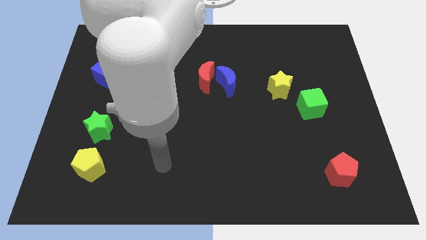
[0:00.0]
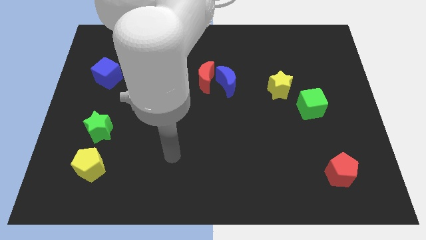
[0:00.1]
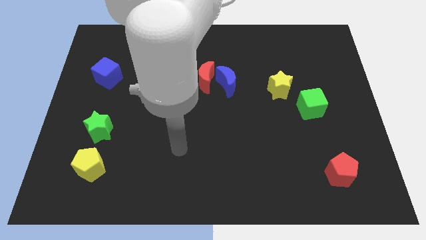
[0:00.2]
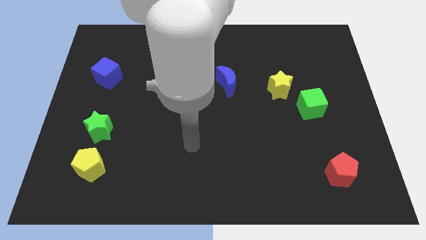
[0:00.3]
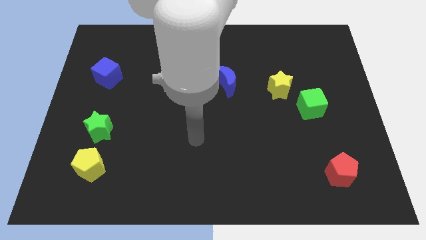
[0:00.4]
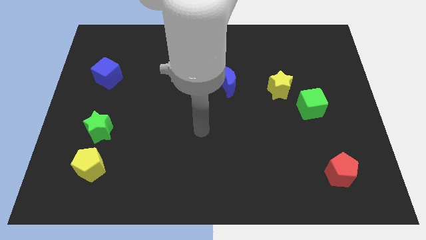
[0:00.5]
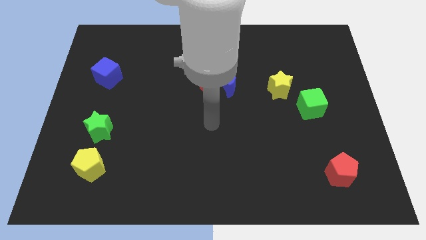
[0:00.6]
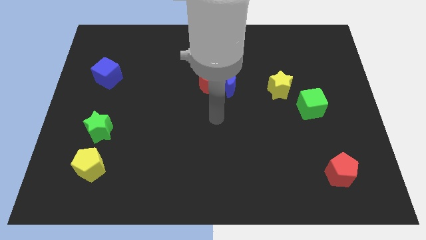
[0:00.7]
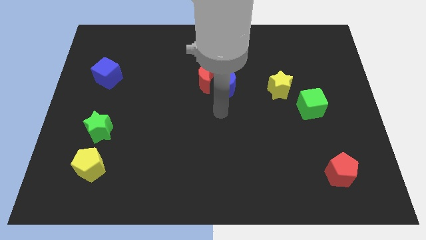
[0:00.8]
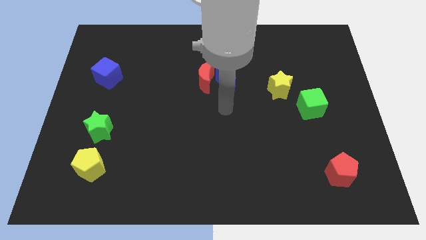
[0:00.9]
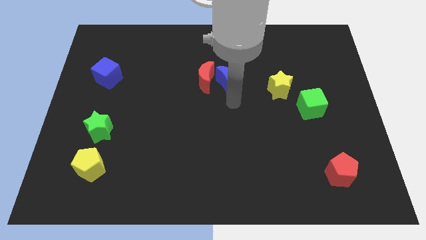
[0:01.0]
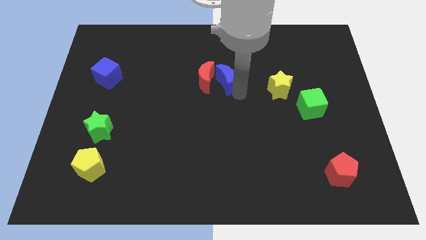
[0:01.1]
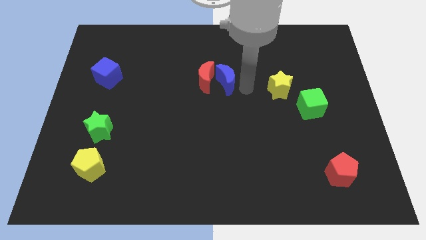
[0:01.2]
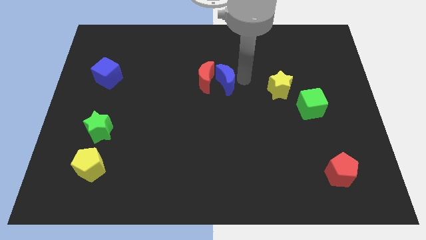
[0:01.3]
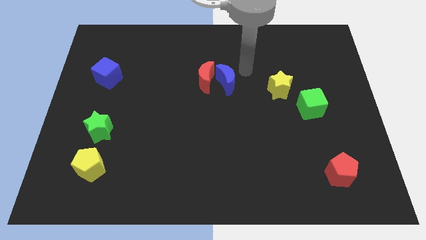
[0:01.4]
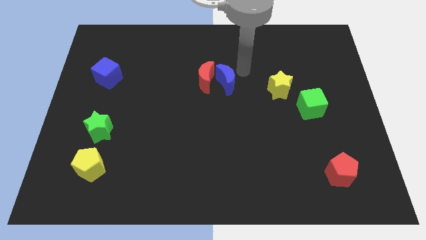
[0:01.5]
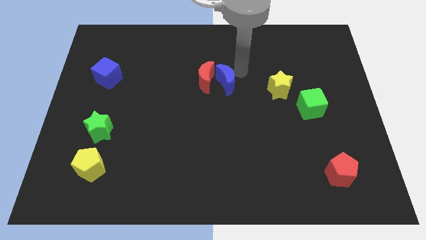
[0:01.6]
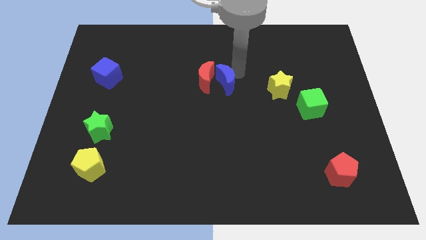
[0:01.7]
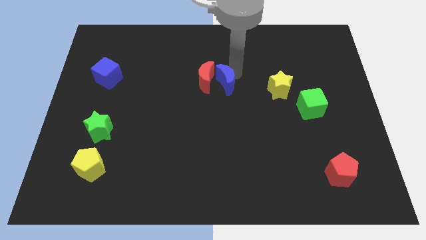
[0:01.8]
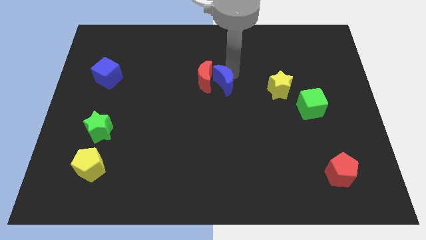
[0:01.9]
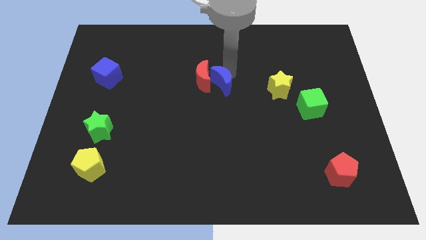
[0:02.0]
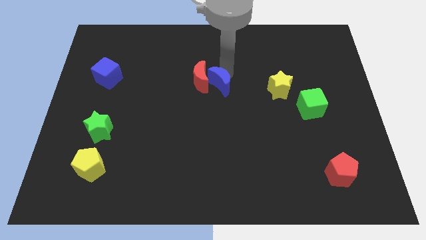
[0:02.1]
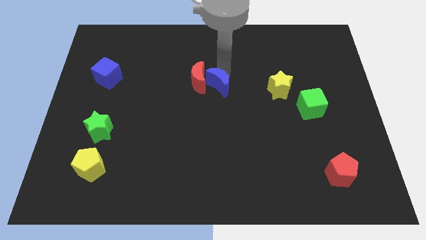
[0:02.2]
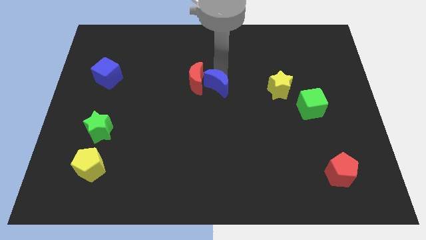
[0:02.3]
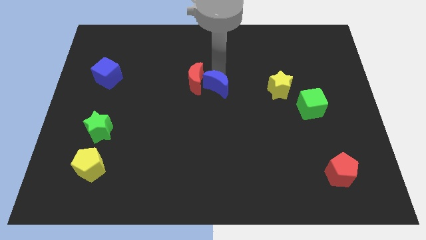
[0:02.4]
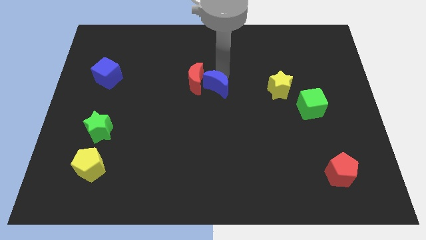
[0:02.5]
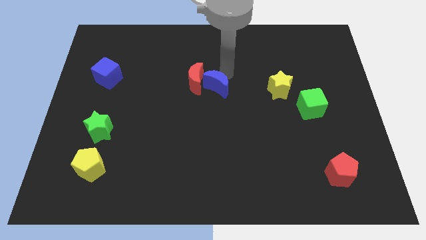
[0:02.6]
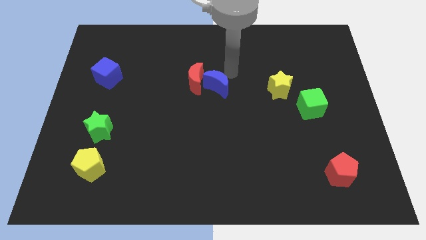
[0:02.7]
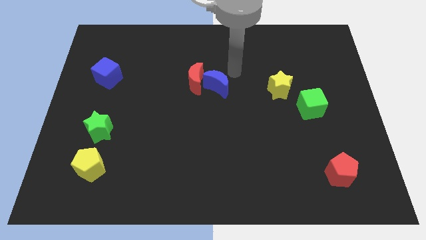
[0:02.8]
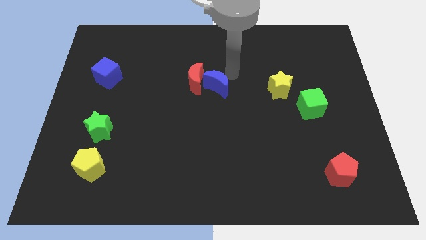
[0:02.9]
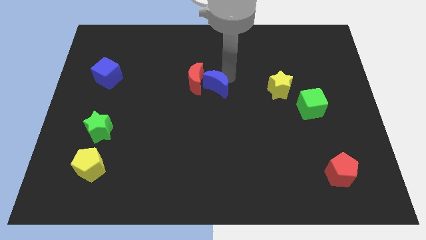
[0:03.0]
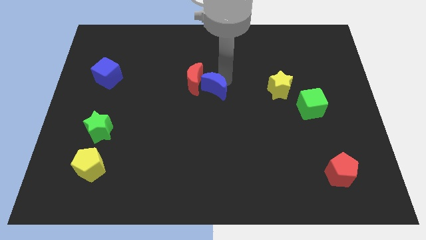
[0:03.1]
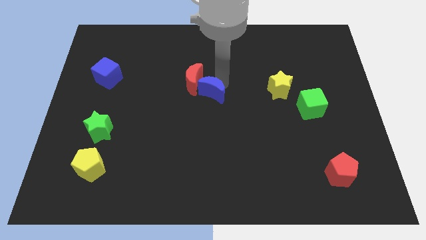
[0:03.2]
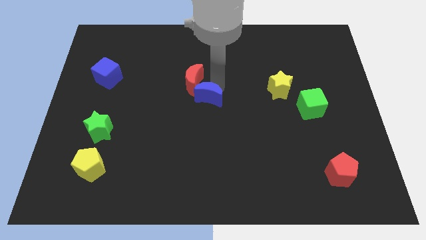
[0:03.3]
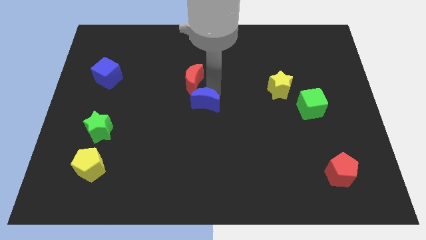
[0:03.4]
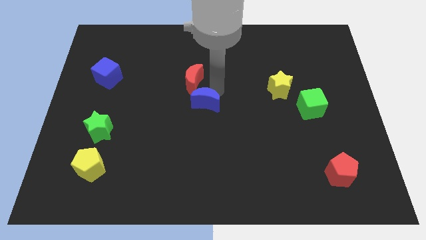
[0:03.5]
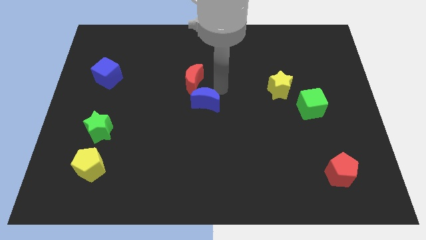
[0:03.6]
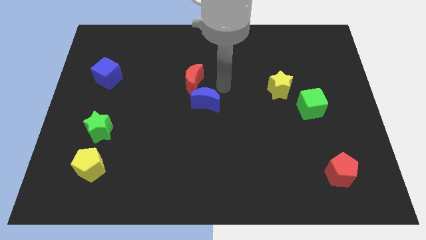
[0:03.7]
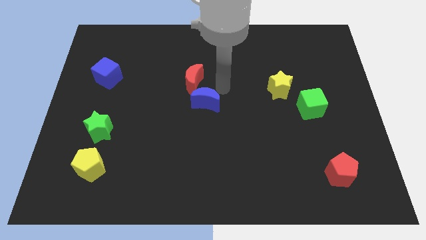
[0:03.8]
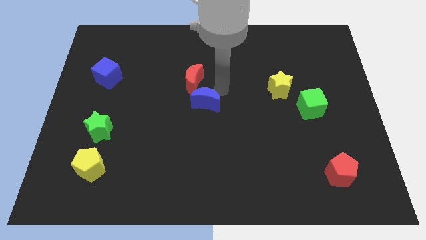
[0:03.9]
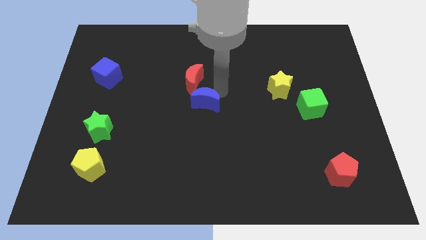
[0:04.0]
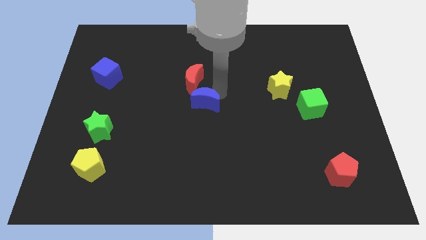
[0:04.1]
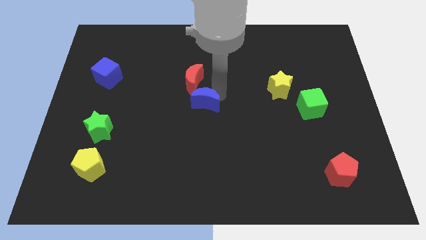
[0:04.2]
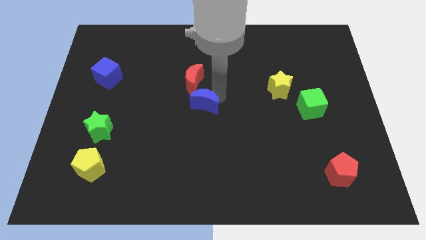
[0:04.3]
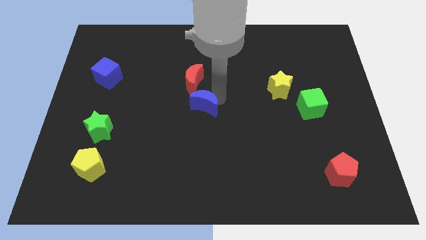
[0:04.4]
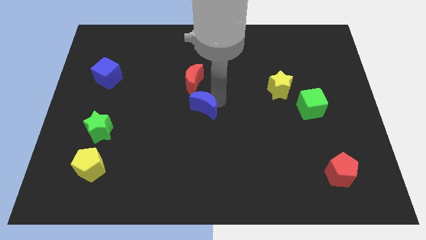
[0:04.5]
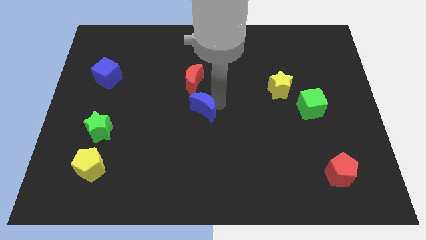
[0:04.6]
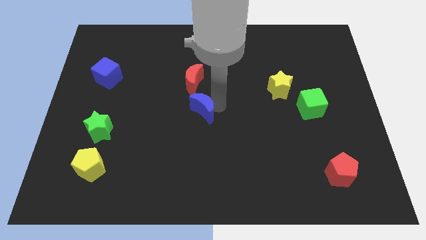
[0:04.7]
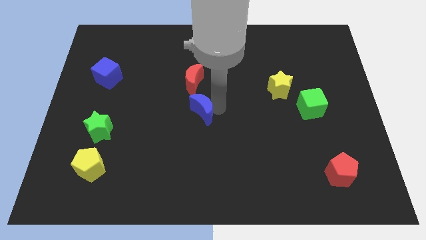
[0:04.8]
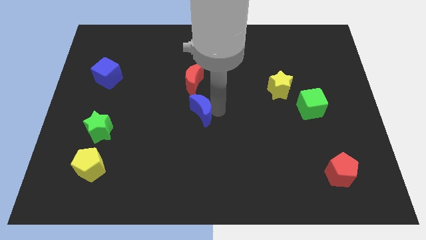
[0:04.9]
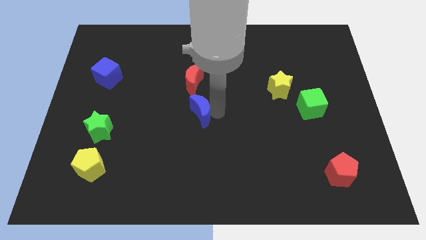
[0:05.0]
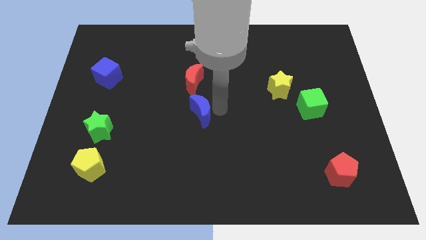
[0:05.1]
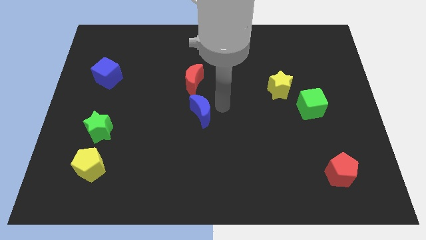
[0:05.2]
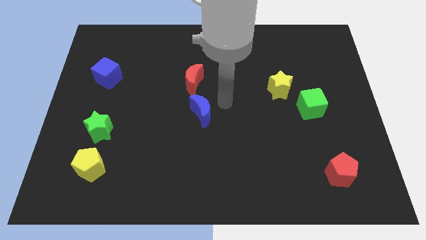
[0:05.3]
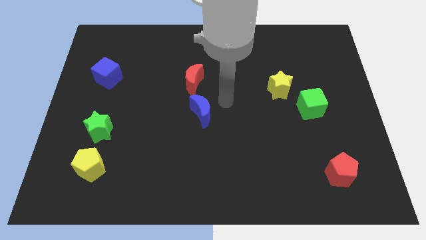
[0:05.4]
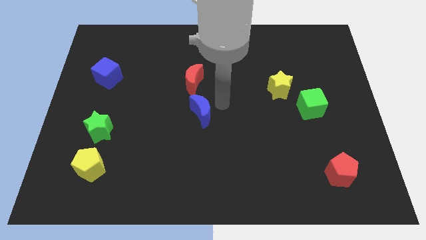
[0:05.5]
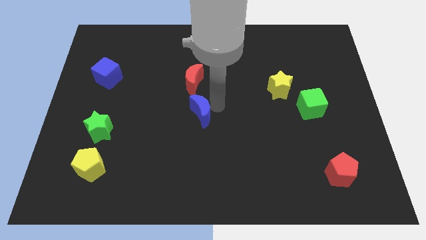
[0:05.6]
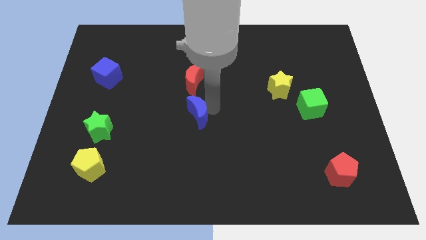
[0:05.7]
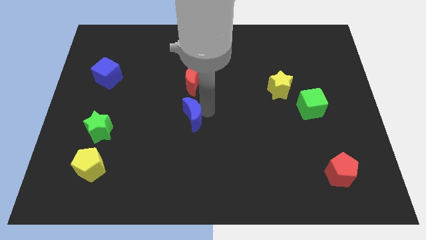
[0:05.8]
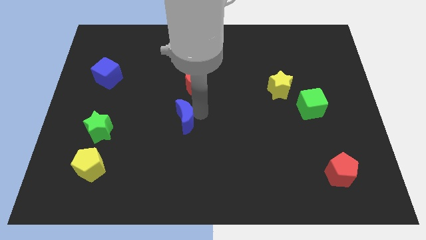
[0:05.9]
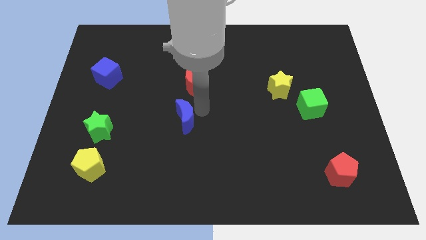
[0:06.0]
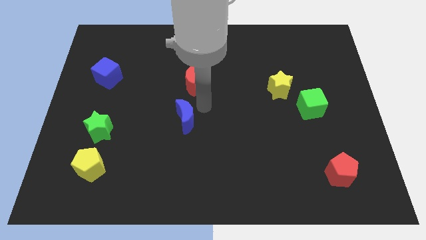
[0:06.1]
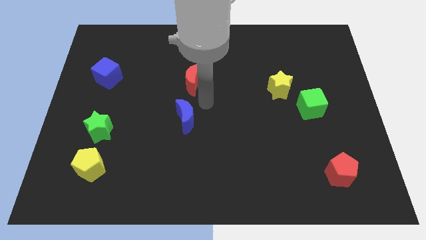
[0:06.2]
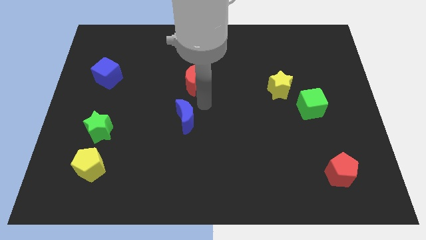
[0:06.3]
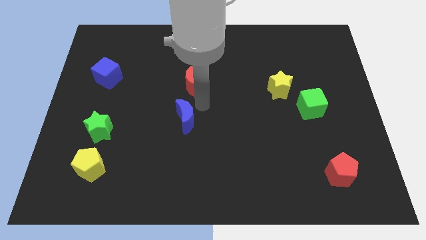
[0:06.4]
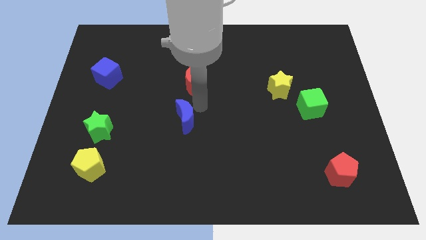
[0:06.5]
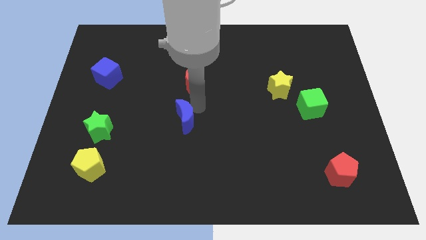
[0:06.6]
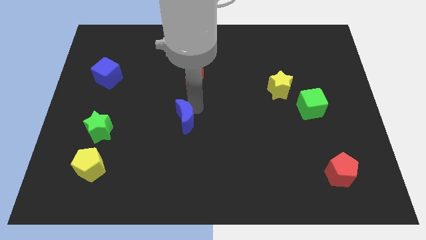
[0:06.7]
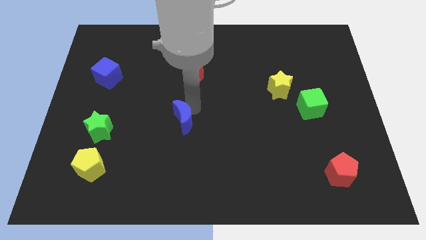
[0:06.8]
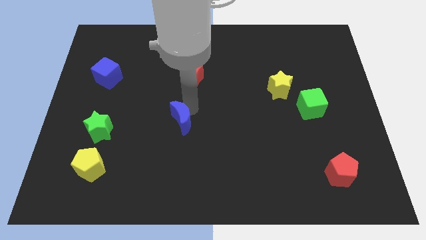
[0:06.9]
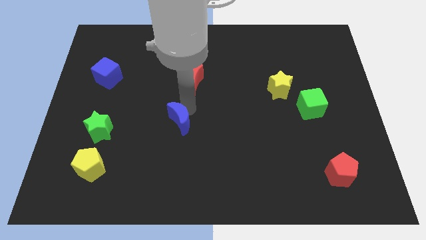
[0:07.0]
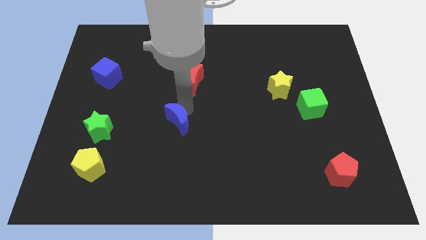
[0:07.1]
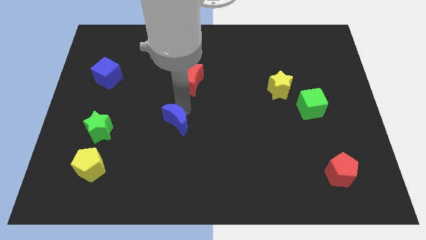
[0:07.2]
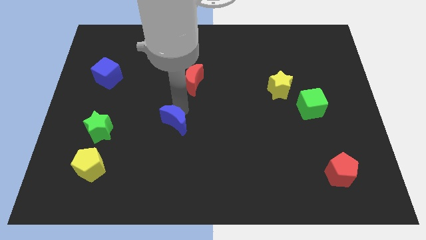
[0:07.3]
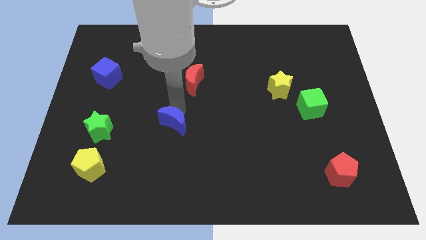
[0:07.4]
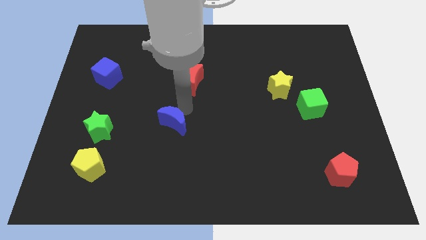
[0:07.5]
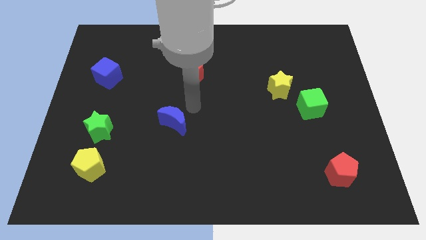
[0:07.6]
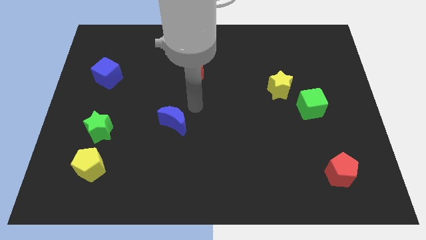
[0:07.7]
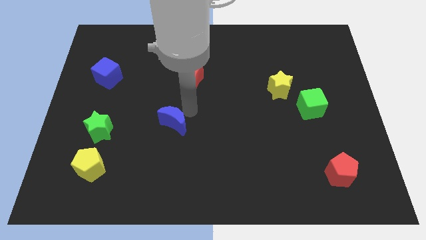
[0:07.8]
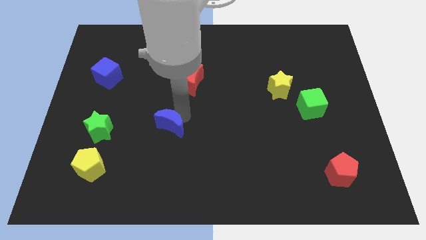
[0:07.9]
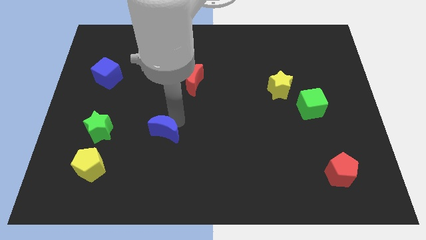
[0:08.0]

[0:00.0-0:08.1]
slide the blue moon downwards and then to the left
